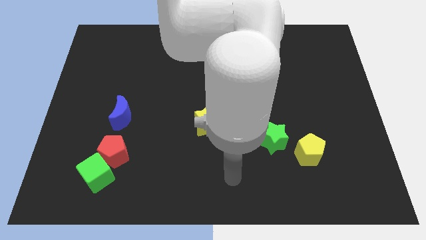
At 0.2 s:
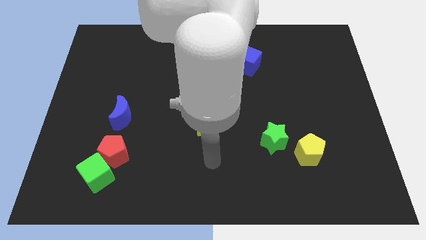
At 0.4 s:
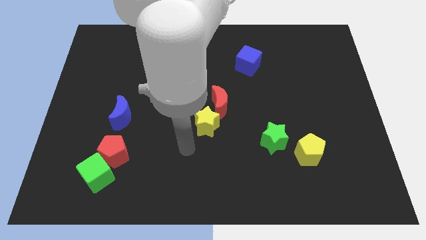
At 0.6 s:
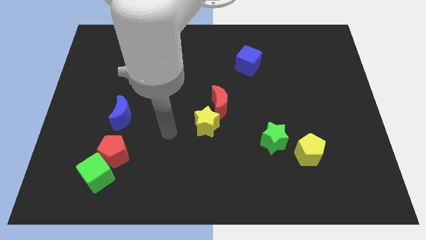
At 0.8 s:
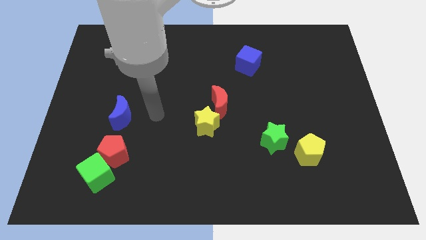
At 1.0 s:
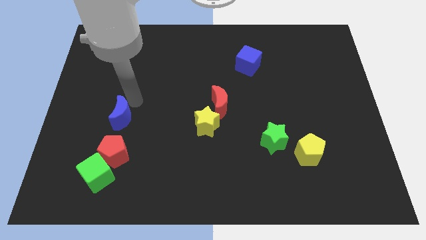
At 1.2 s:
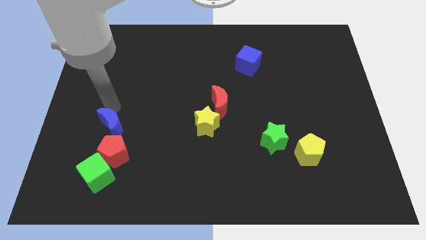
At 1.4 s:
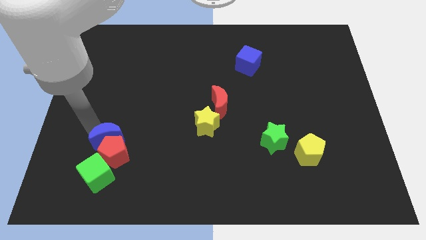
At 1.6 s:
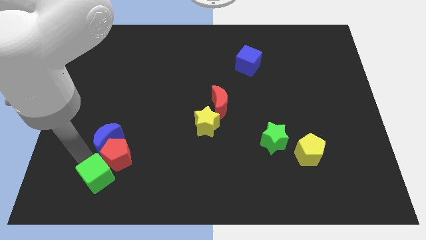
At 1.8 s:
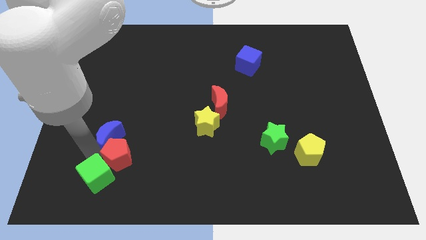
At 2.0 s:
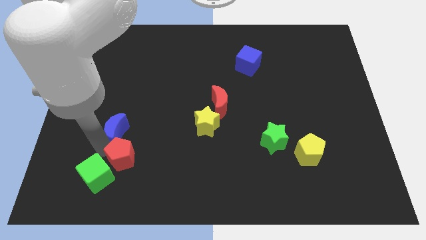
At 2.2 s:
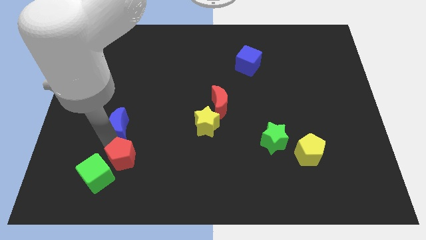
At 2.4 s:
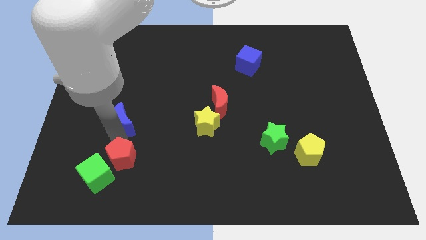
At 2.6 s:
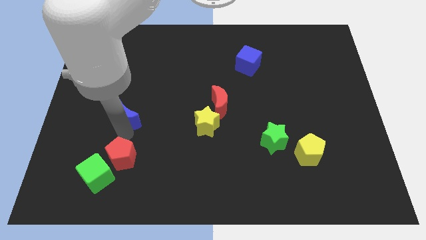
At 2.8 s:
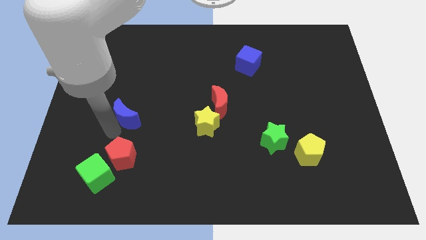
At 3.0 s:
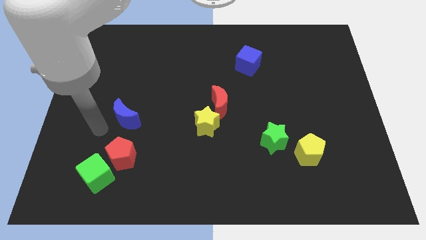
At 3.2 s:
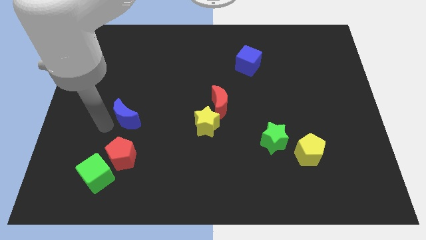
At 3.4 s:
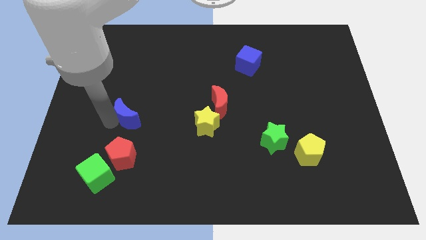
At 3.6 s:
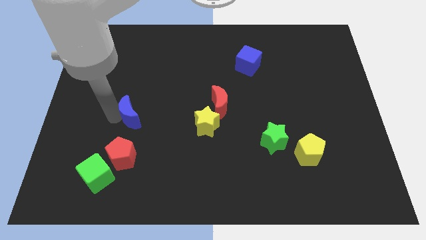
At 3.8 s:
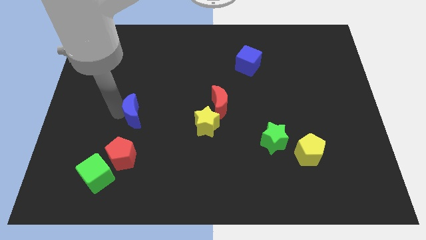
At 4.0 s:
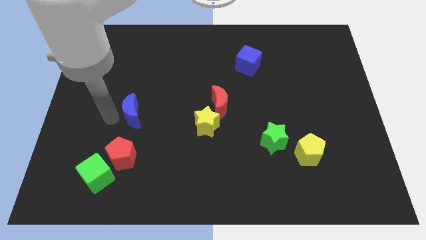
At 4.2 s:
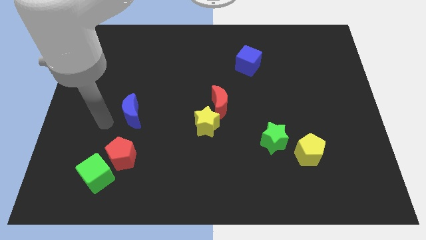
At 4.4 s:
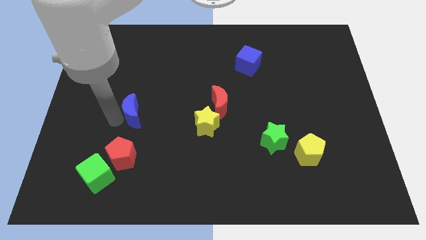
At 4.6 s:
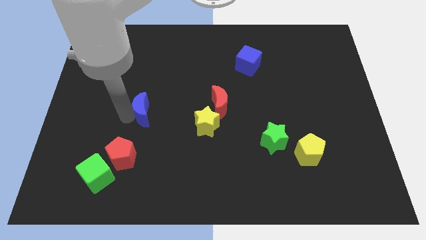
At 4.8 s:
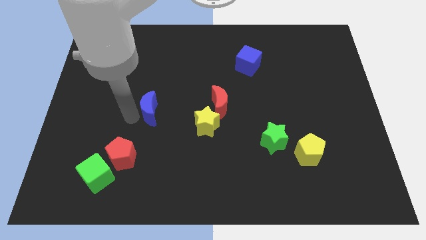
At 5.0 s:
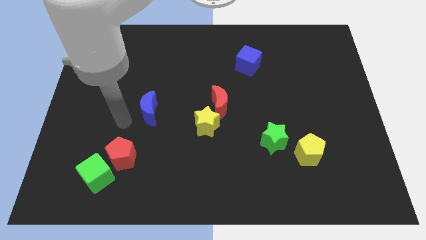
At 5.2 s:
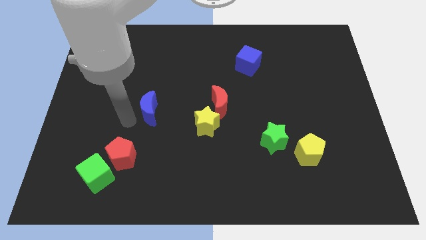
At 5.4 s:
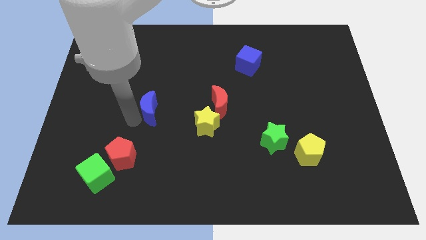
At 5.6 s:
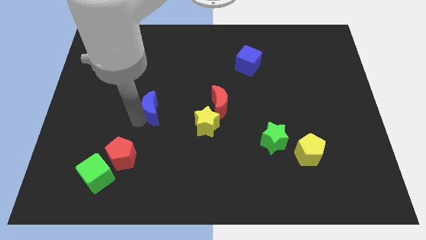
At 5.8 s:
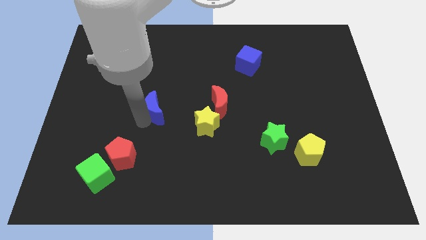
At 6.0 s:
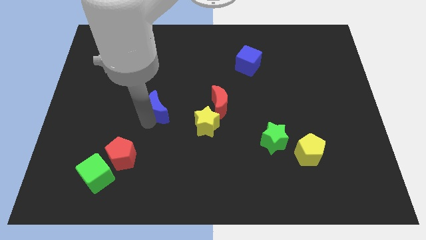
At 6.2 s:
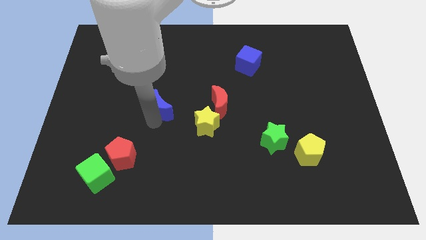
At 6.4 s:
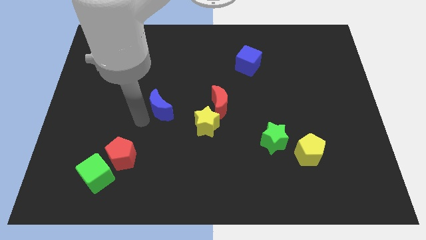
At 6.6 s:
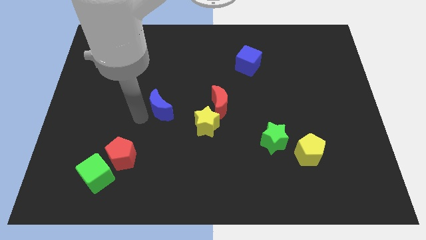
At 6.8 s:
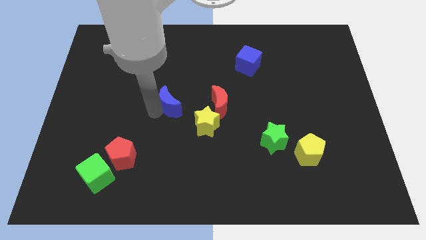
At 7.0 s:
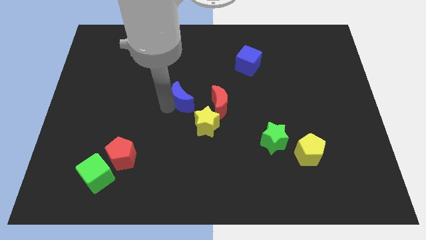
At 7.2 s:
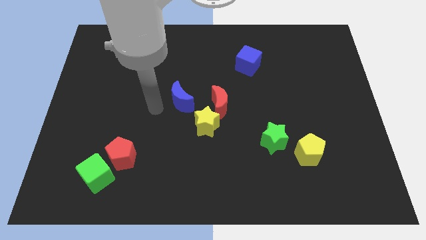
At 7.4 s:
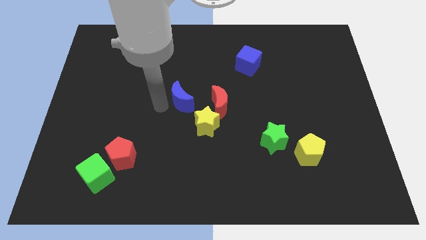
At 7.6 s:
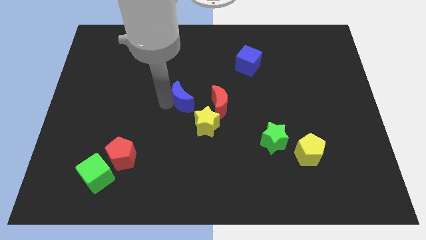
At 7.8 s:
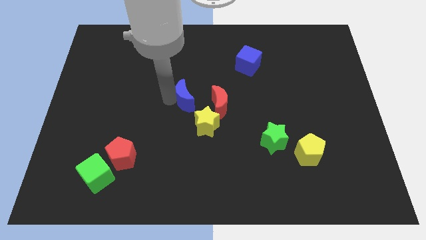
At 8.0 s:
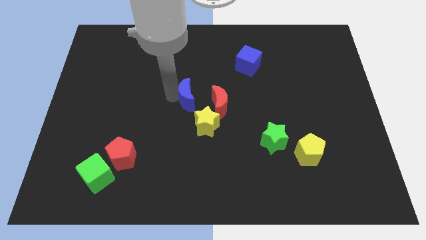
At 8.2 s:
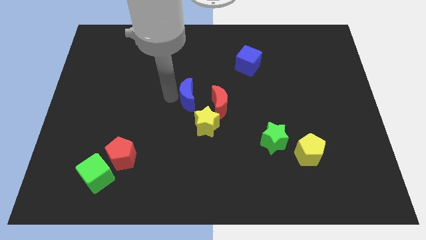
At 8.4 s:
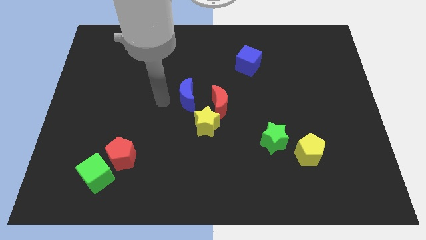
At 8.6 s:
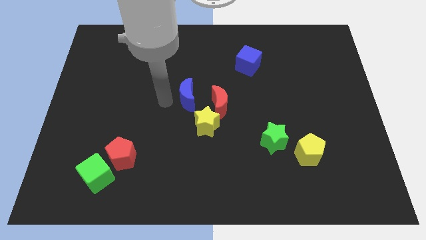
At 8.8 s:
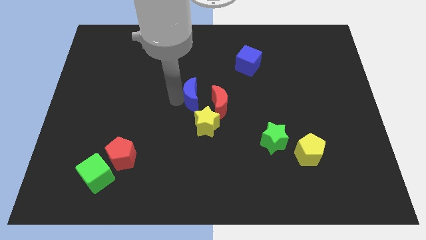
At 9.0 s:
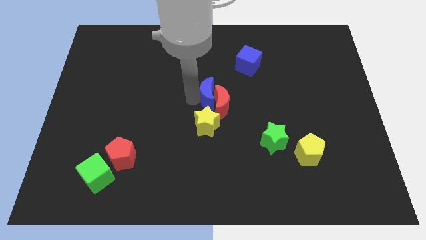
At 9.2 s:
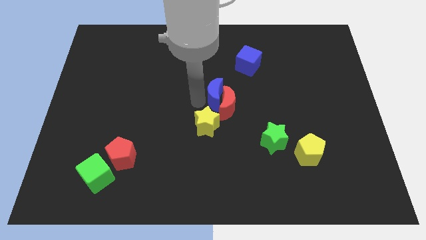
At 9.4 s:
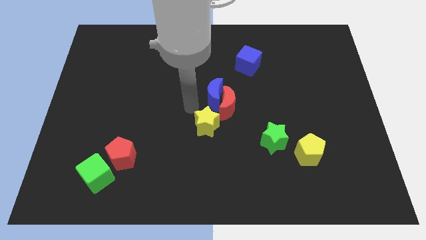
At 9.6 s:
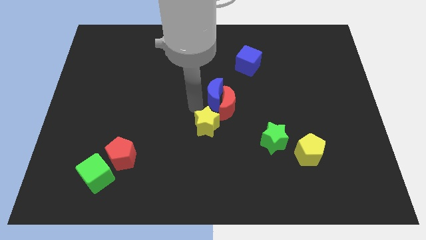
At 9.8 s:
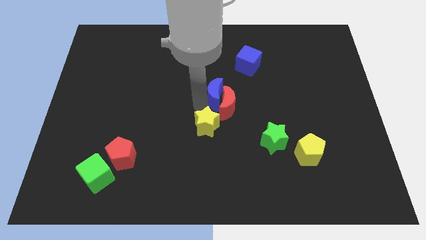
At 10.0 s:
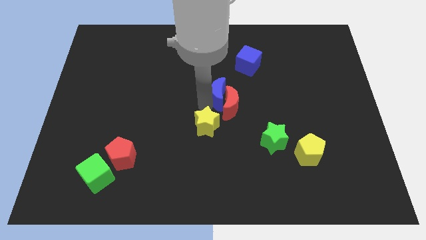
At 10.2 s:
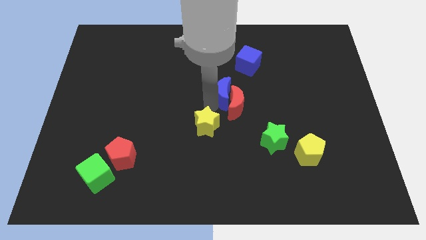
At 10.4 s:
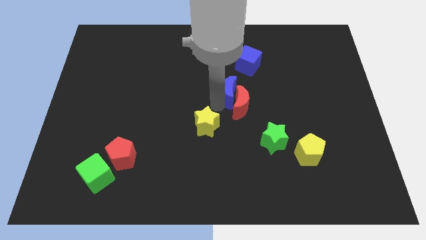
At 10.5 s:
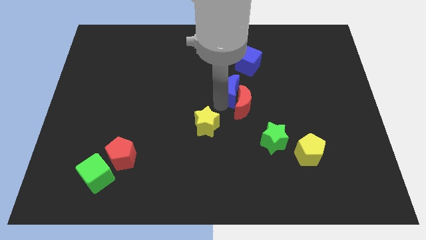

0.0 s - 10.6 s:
slide the blue moon to the bottom side of the blue cube

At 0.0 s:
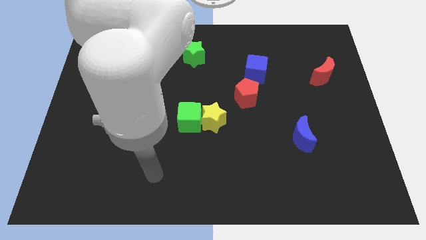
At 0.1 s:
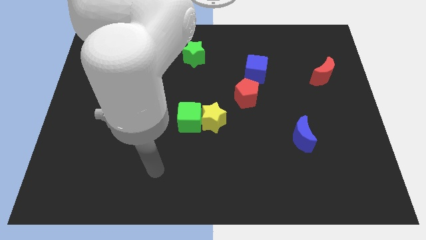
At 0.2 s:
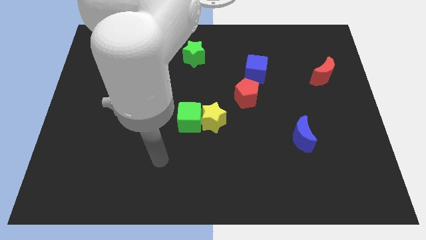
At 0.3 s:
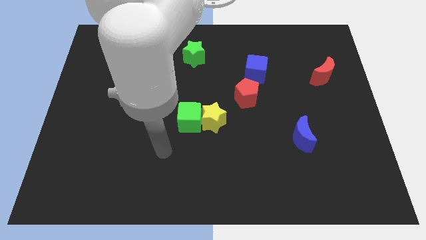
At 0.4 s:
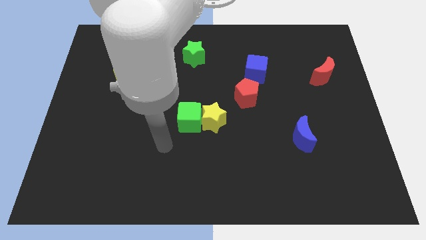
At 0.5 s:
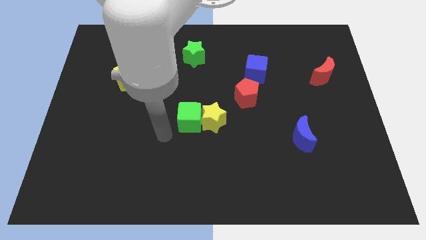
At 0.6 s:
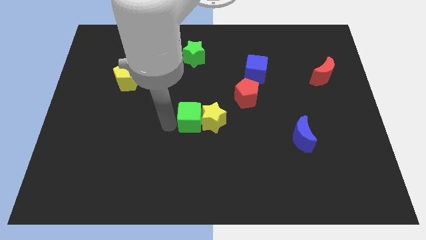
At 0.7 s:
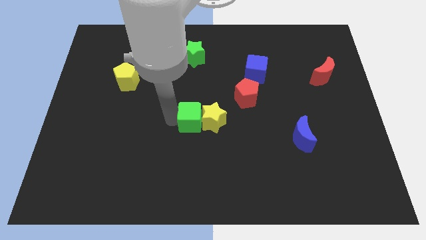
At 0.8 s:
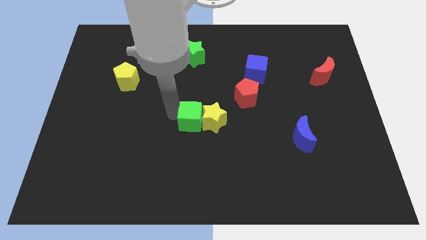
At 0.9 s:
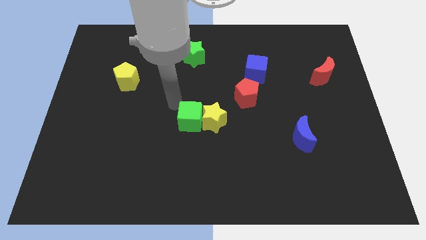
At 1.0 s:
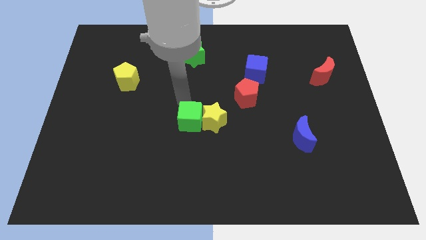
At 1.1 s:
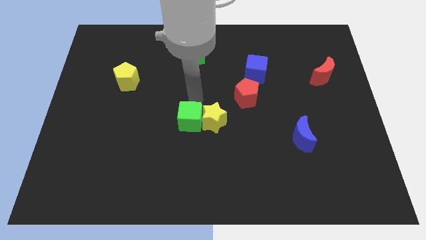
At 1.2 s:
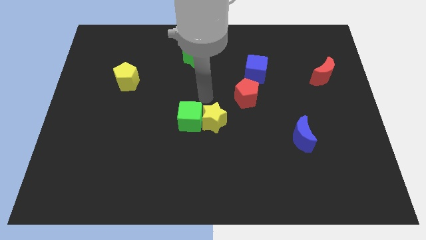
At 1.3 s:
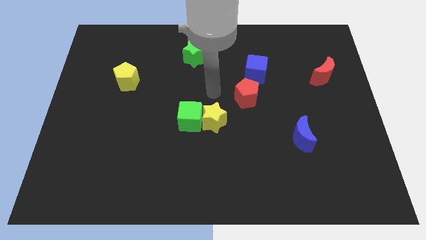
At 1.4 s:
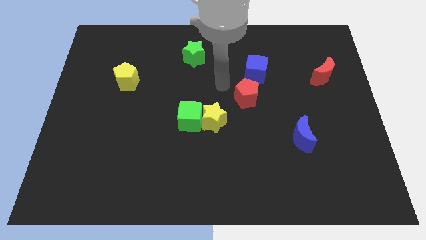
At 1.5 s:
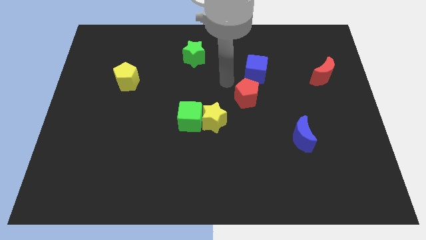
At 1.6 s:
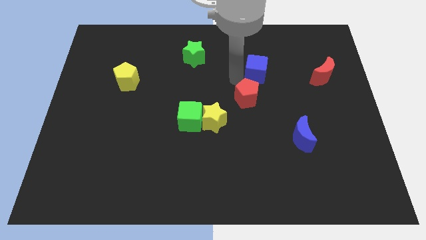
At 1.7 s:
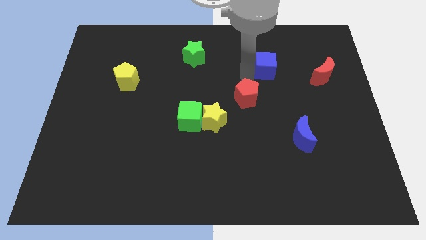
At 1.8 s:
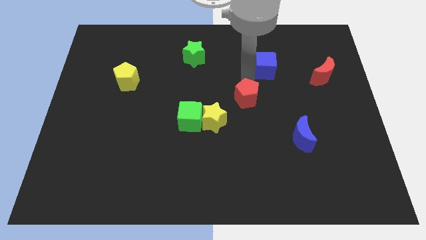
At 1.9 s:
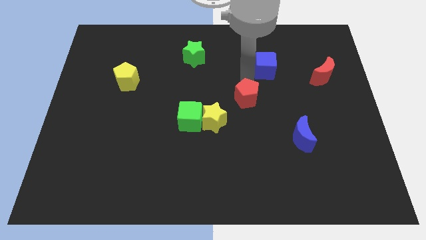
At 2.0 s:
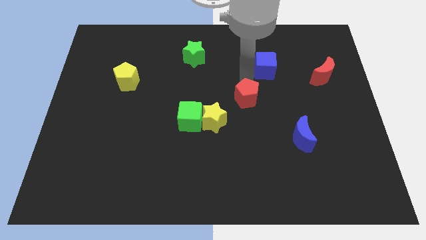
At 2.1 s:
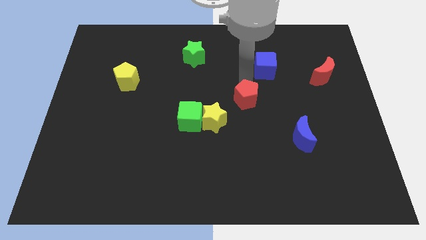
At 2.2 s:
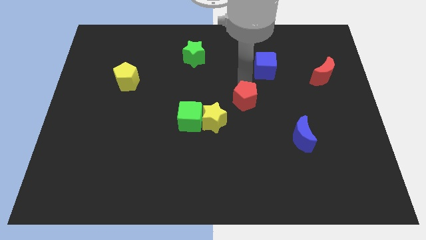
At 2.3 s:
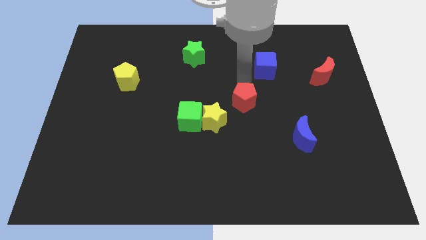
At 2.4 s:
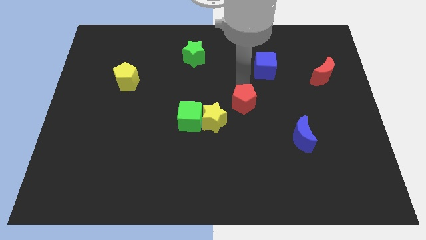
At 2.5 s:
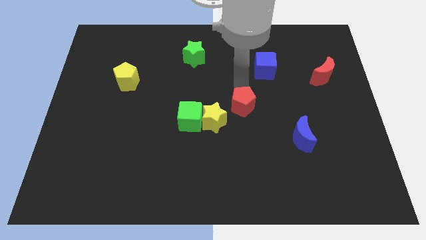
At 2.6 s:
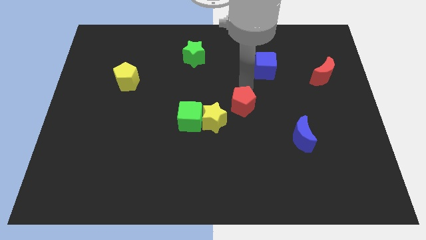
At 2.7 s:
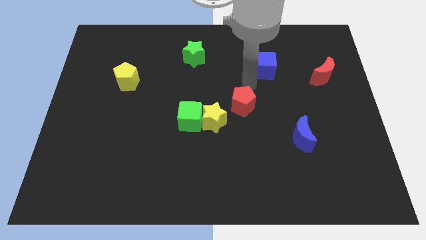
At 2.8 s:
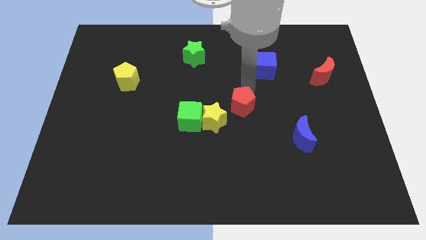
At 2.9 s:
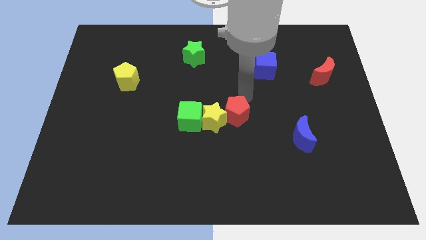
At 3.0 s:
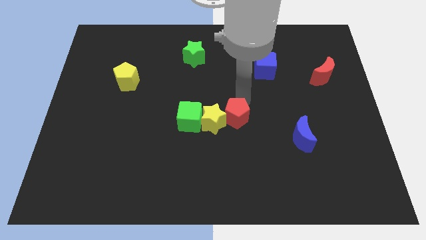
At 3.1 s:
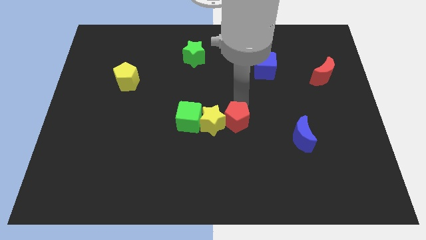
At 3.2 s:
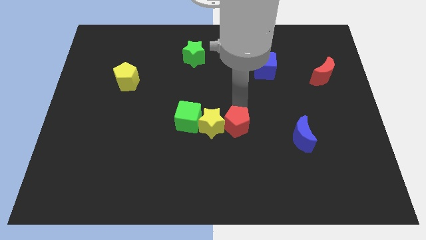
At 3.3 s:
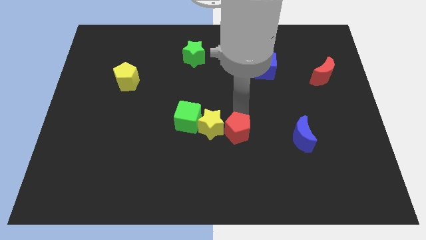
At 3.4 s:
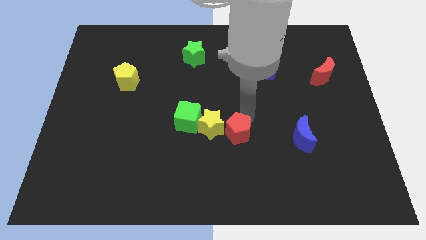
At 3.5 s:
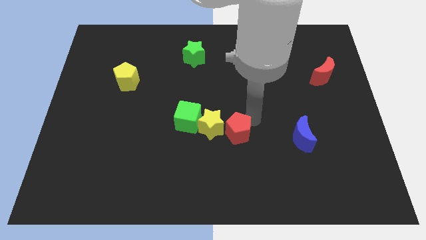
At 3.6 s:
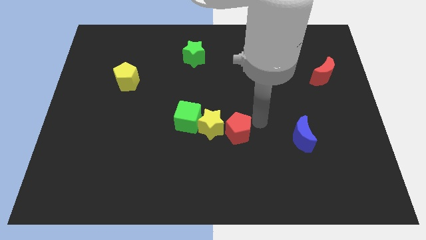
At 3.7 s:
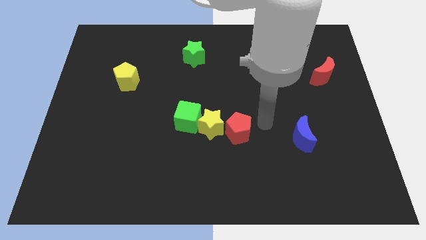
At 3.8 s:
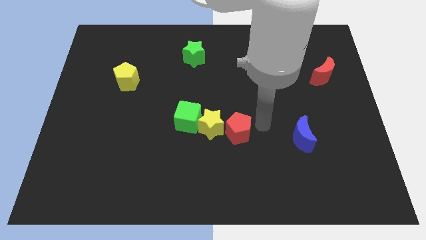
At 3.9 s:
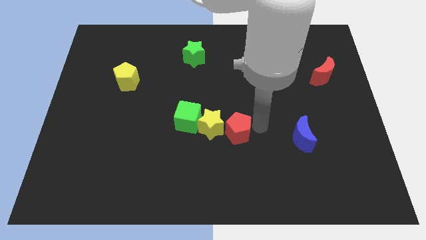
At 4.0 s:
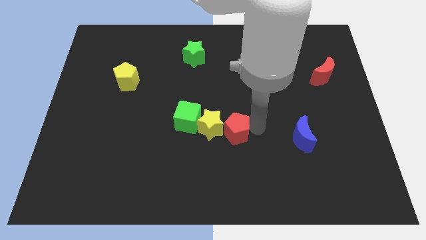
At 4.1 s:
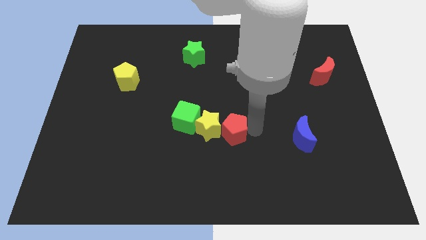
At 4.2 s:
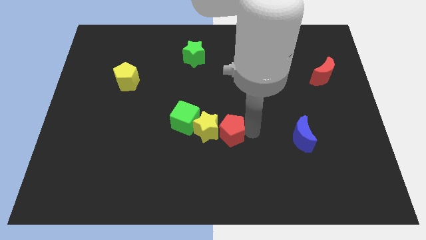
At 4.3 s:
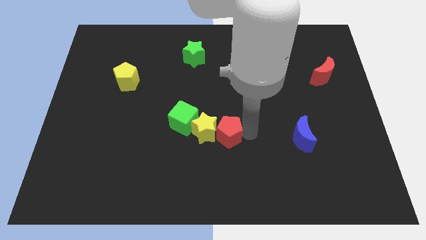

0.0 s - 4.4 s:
push the red pentagon diagonally down and to the right of the green cube
